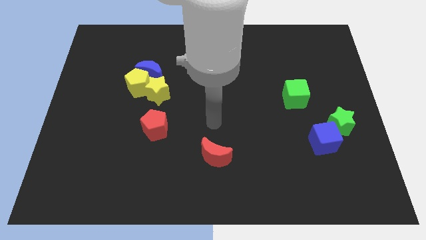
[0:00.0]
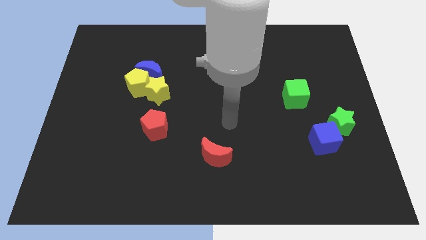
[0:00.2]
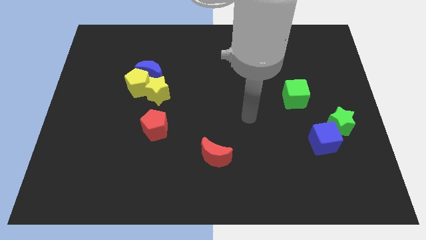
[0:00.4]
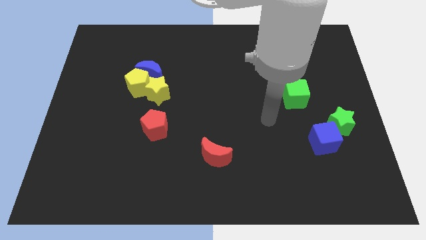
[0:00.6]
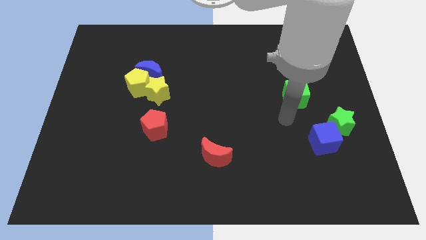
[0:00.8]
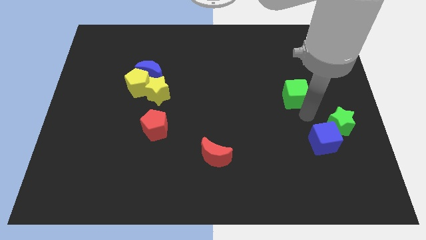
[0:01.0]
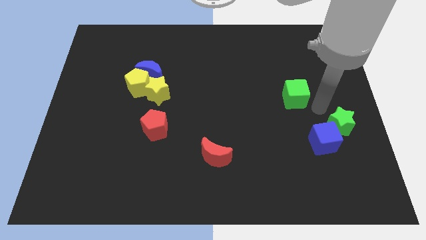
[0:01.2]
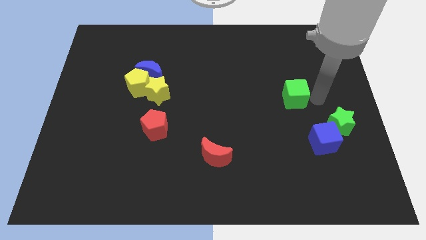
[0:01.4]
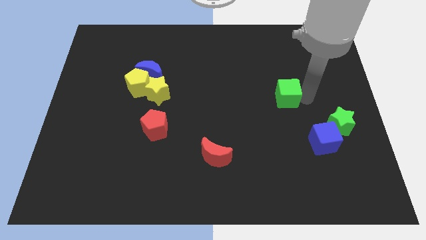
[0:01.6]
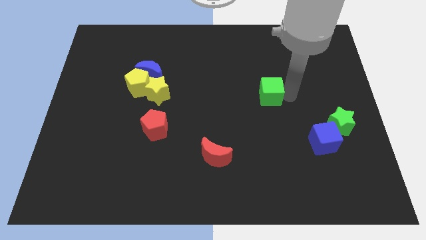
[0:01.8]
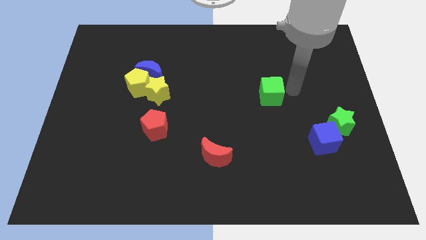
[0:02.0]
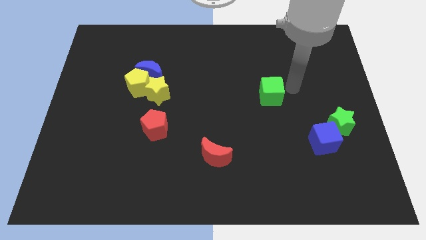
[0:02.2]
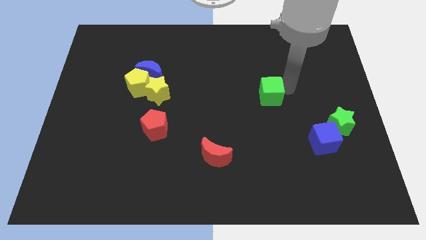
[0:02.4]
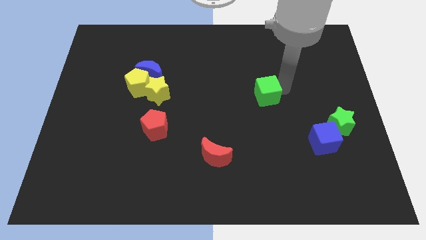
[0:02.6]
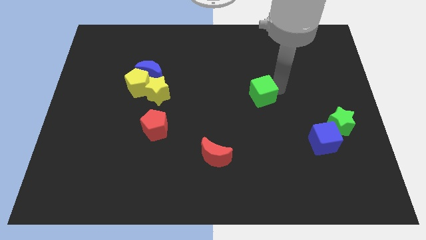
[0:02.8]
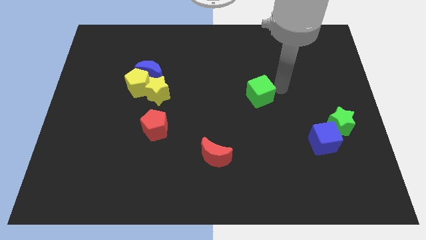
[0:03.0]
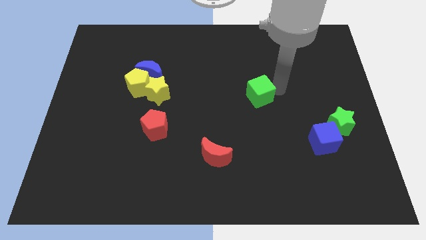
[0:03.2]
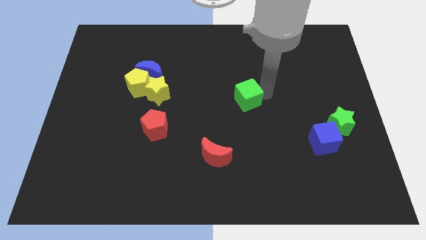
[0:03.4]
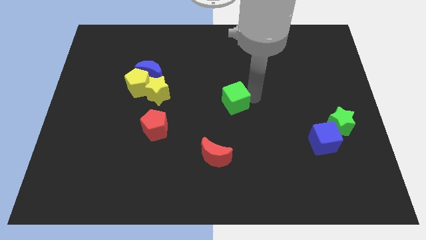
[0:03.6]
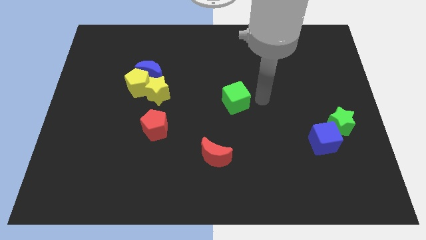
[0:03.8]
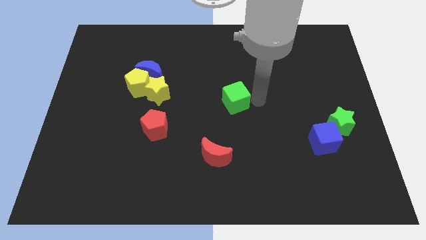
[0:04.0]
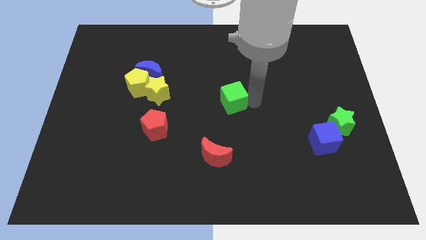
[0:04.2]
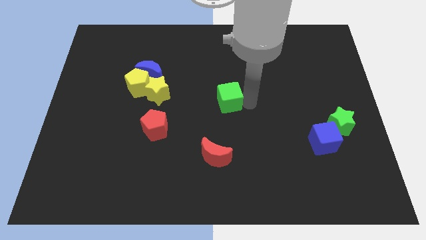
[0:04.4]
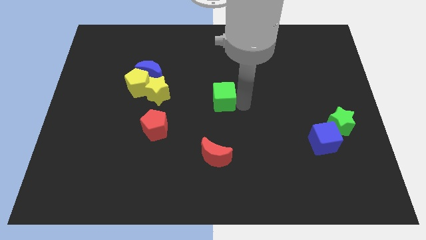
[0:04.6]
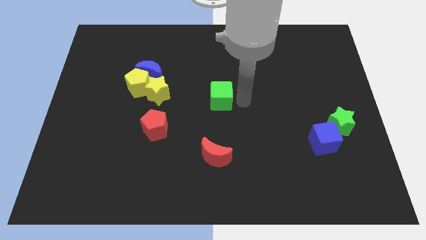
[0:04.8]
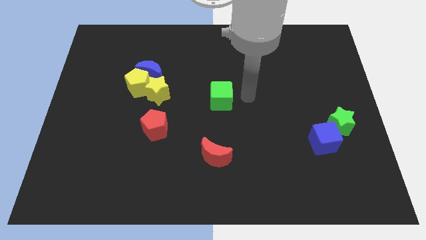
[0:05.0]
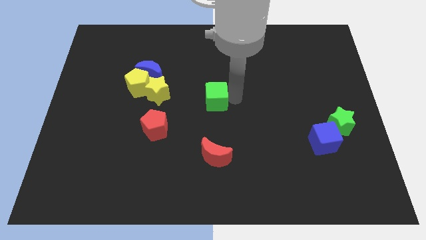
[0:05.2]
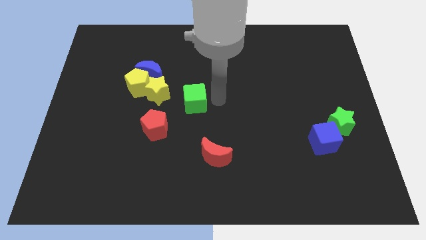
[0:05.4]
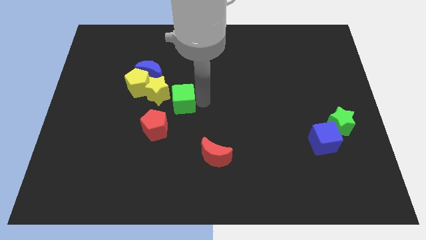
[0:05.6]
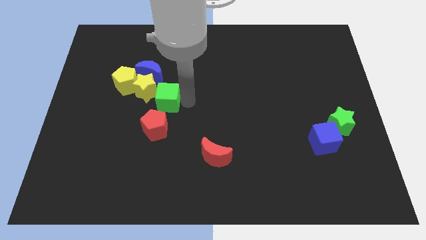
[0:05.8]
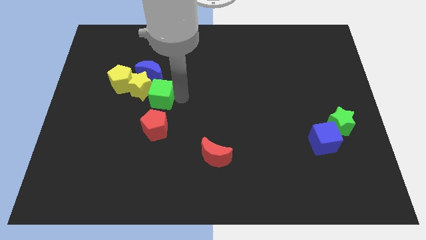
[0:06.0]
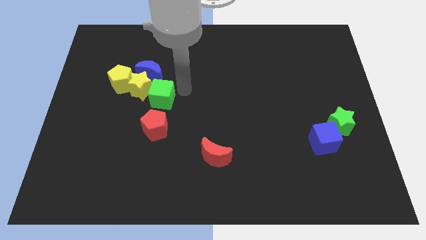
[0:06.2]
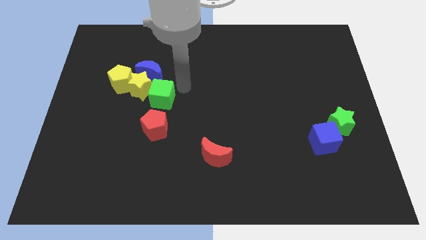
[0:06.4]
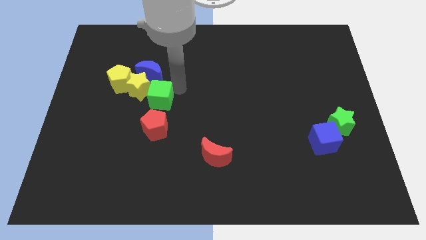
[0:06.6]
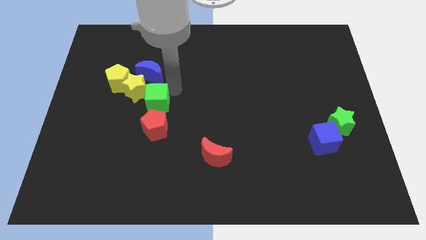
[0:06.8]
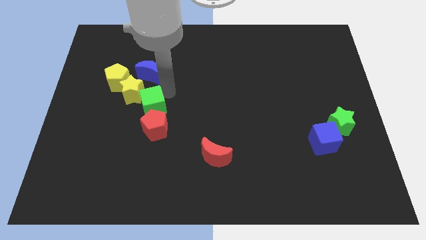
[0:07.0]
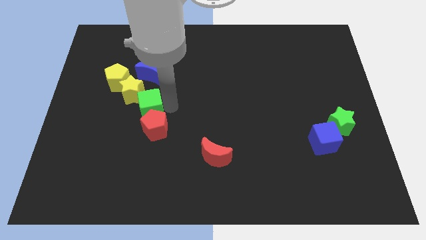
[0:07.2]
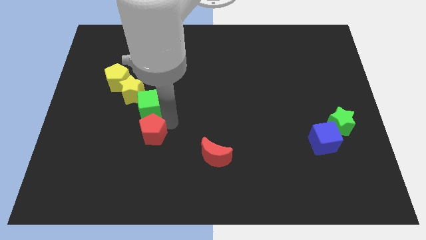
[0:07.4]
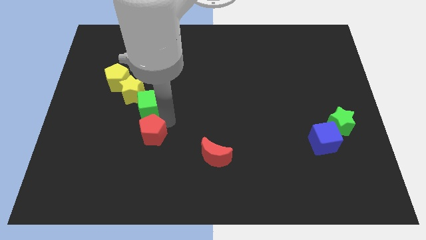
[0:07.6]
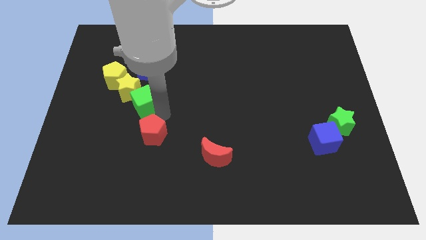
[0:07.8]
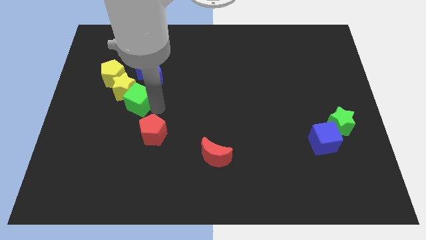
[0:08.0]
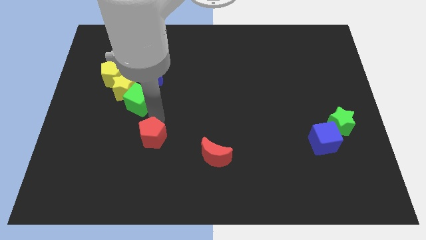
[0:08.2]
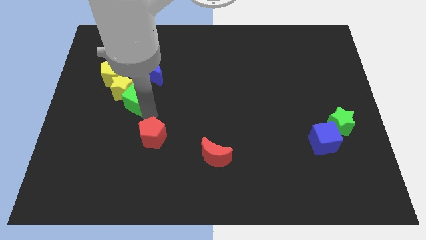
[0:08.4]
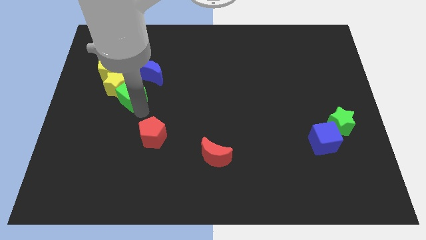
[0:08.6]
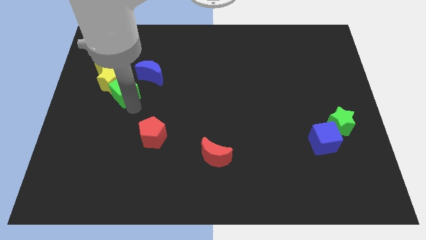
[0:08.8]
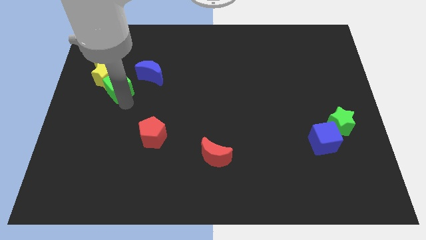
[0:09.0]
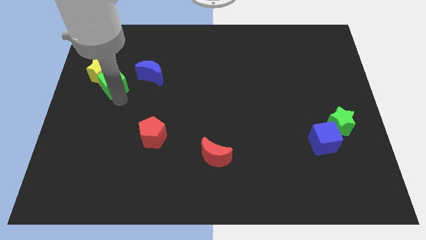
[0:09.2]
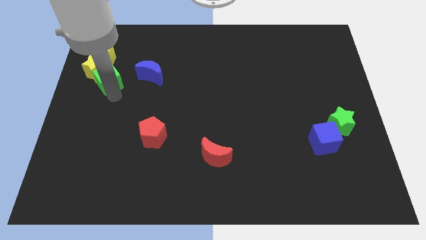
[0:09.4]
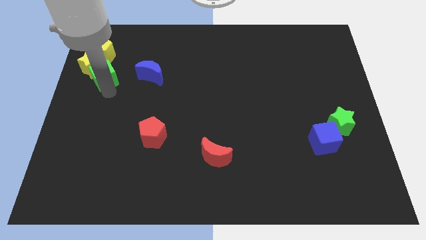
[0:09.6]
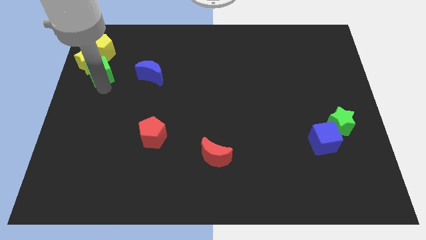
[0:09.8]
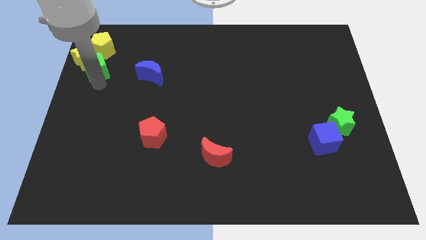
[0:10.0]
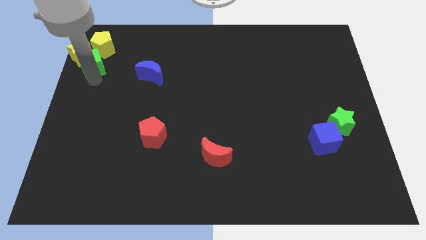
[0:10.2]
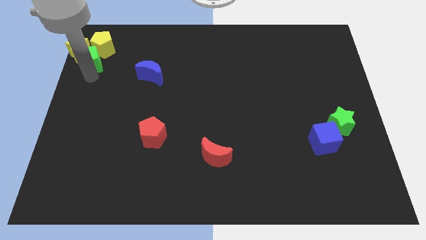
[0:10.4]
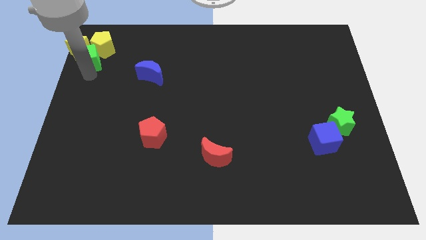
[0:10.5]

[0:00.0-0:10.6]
push the green cube towards the yellow pentagon

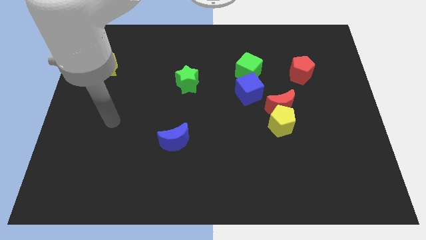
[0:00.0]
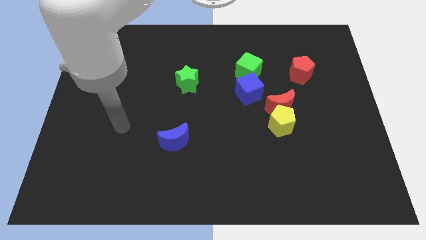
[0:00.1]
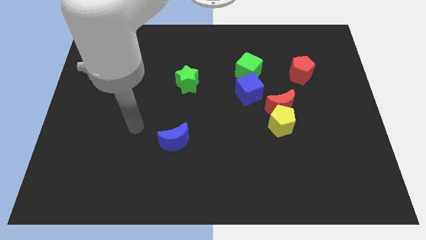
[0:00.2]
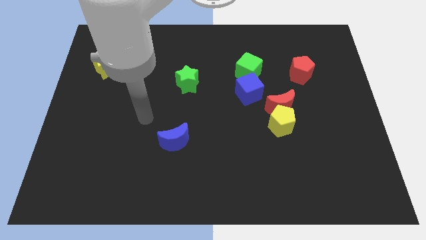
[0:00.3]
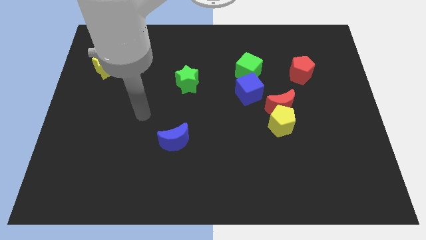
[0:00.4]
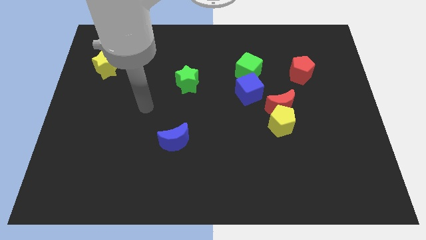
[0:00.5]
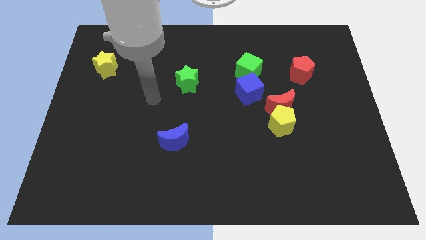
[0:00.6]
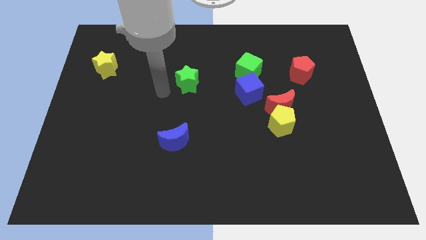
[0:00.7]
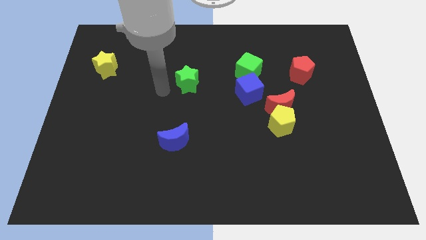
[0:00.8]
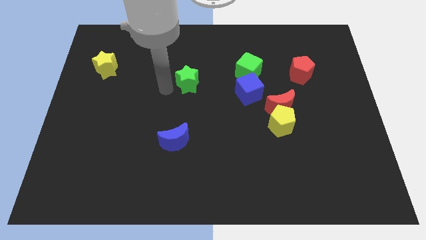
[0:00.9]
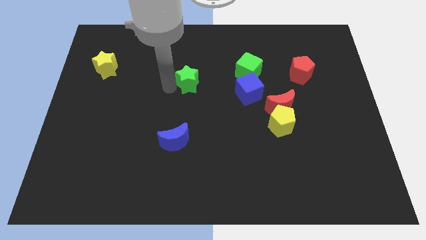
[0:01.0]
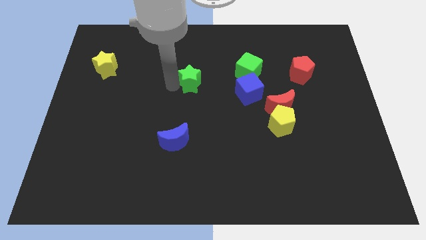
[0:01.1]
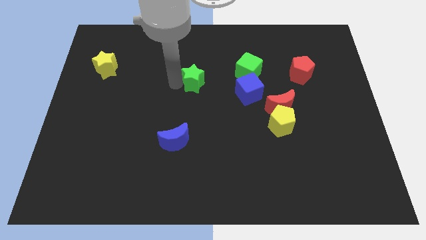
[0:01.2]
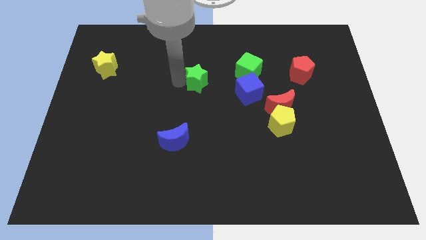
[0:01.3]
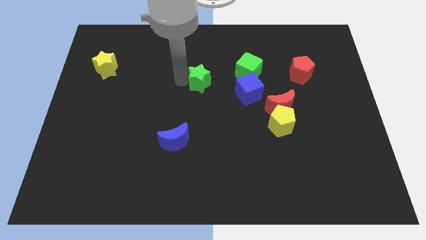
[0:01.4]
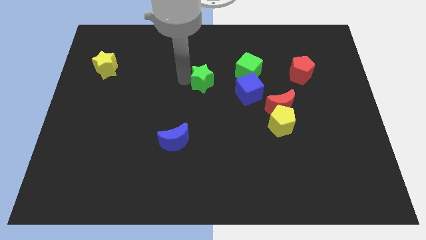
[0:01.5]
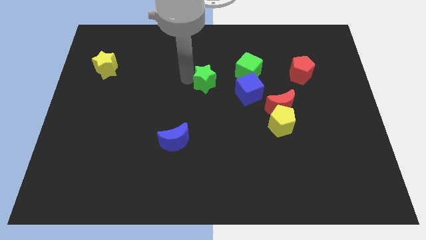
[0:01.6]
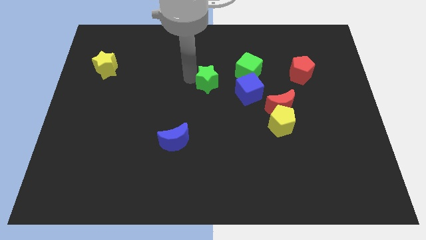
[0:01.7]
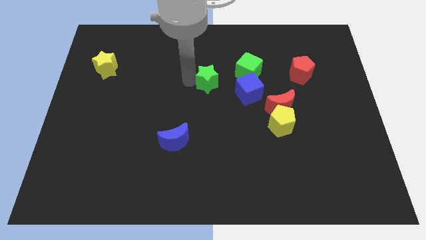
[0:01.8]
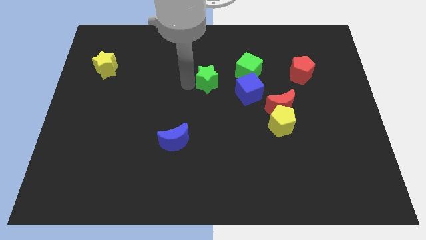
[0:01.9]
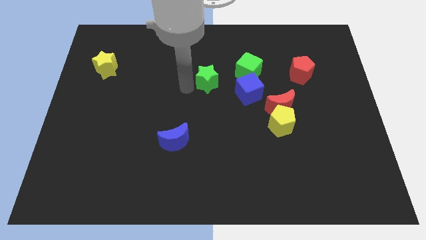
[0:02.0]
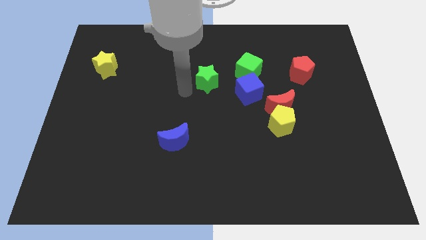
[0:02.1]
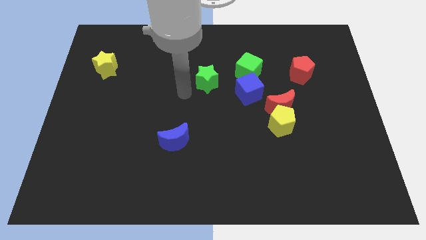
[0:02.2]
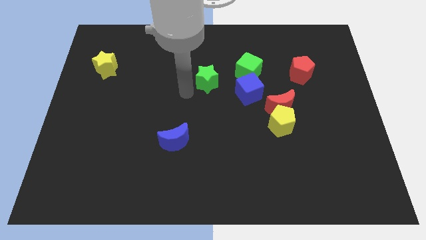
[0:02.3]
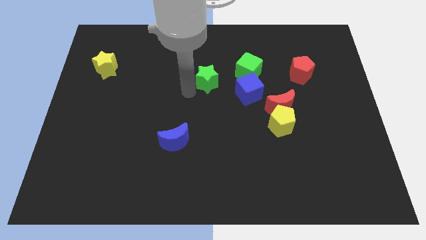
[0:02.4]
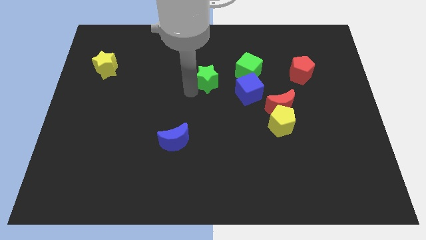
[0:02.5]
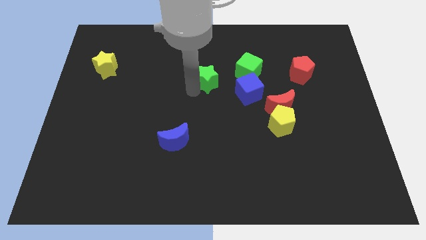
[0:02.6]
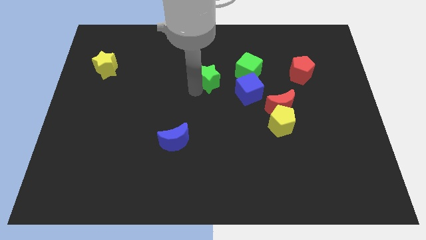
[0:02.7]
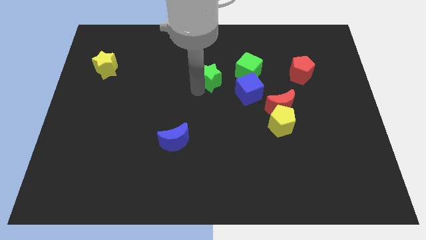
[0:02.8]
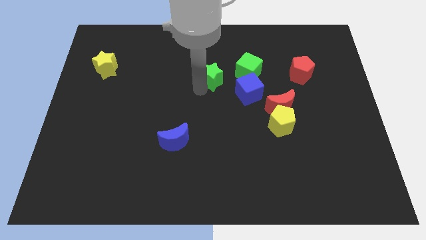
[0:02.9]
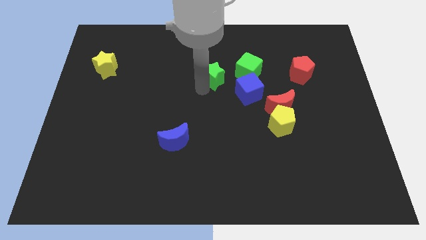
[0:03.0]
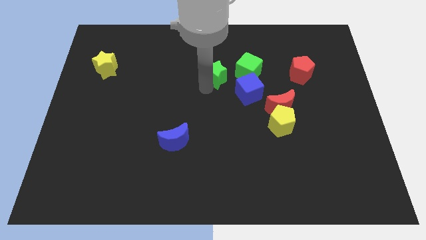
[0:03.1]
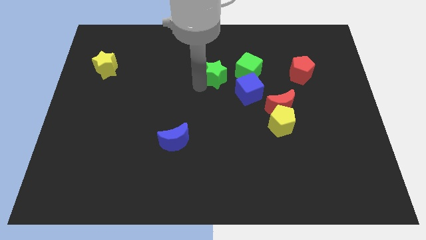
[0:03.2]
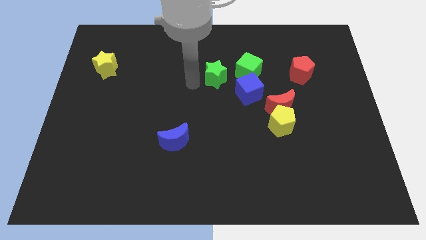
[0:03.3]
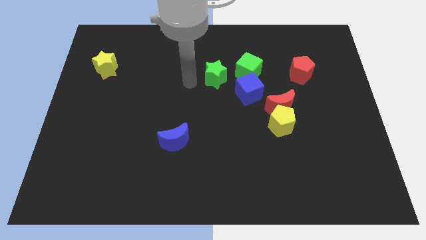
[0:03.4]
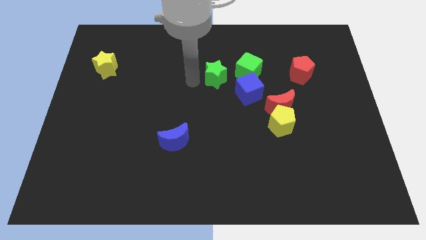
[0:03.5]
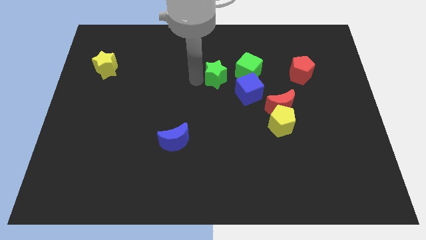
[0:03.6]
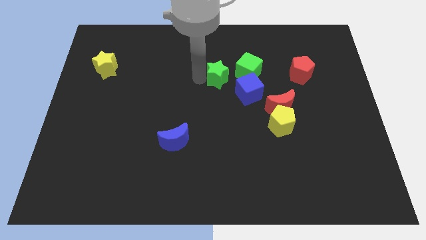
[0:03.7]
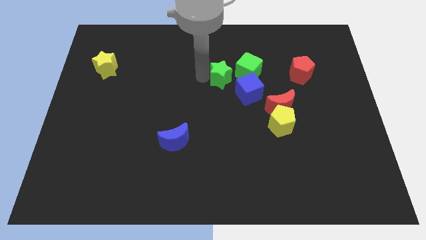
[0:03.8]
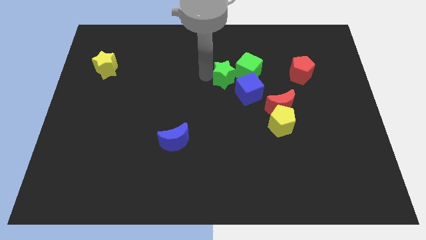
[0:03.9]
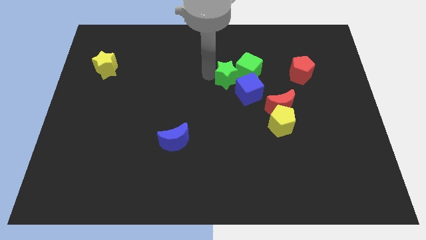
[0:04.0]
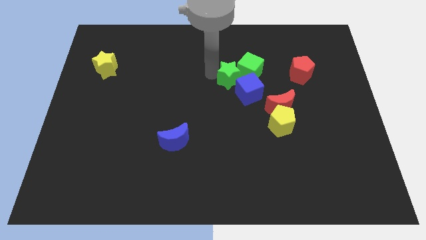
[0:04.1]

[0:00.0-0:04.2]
move the green star next to the green cube
